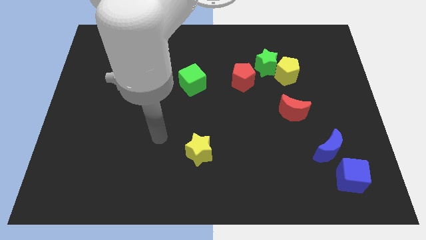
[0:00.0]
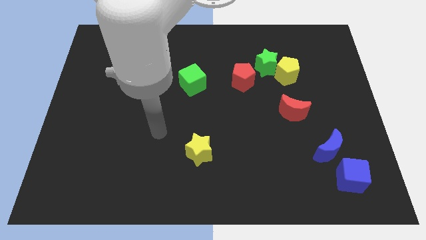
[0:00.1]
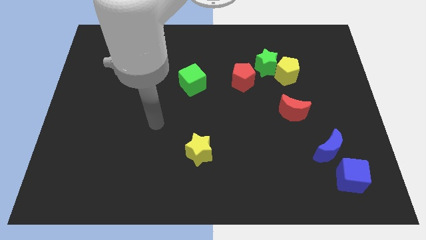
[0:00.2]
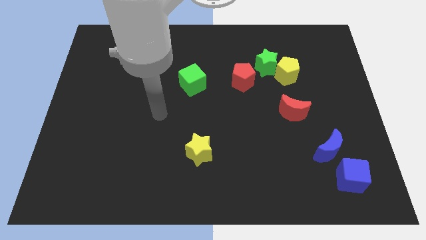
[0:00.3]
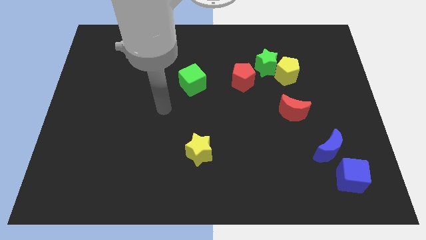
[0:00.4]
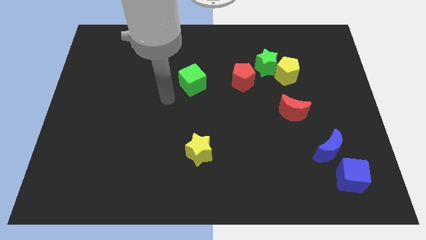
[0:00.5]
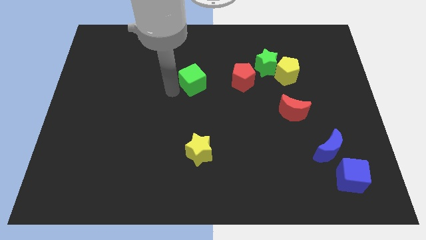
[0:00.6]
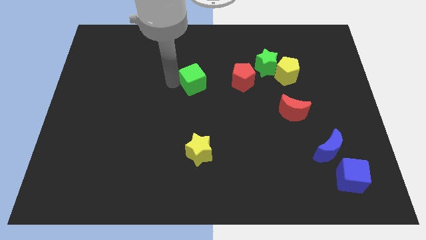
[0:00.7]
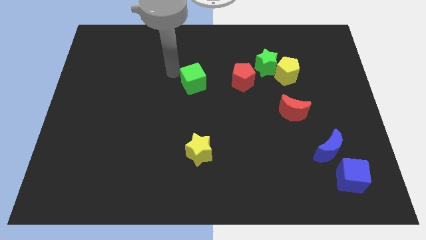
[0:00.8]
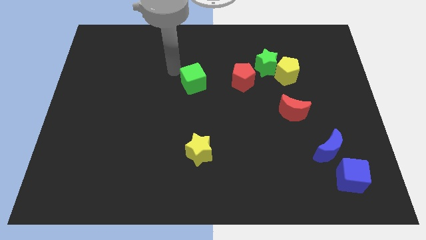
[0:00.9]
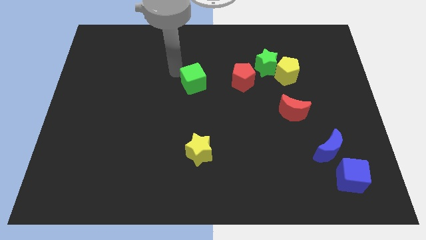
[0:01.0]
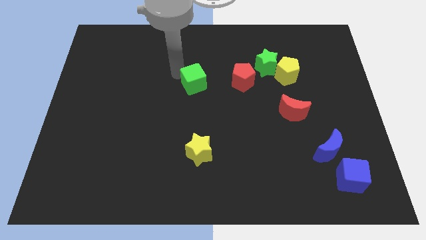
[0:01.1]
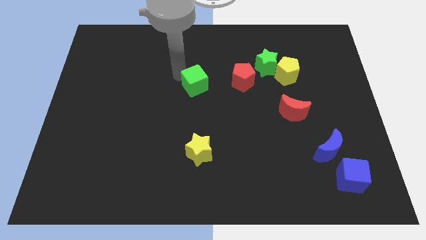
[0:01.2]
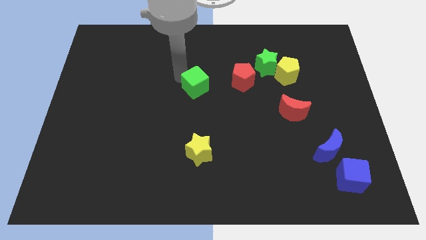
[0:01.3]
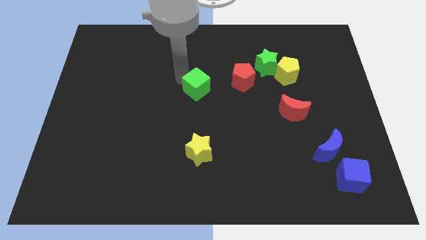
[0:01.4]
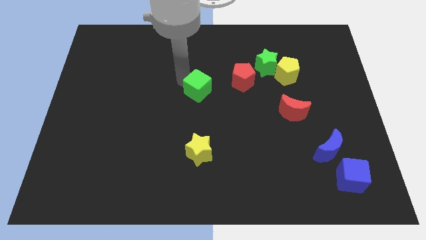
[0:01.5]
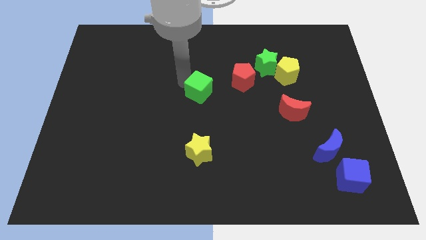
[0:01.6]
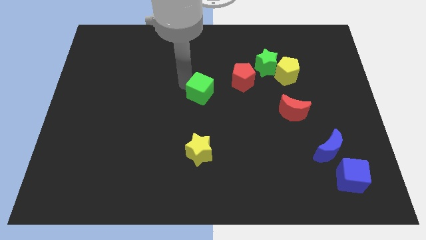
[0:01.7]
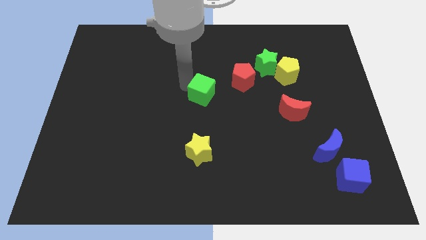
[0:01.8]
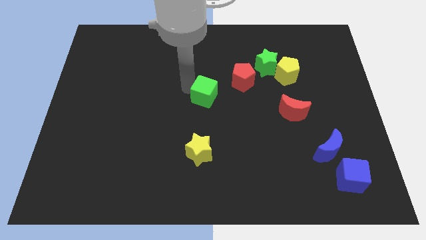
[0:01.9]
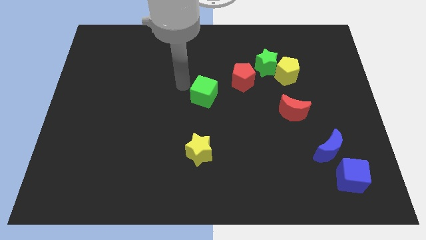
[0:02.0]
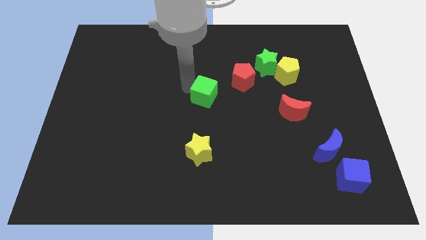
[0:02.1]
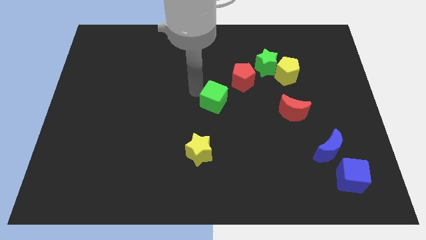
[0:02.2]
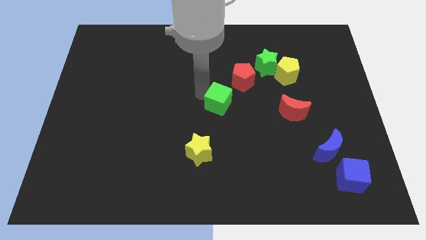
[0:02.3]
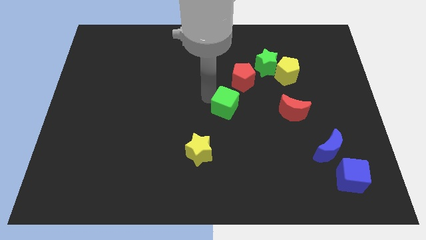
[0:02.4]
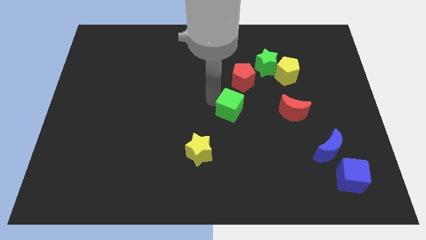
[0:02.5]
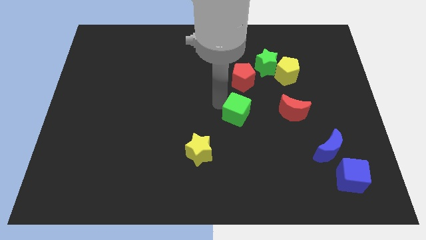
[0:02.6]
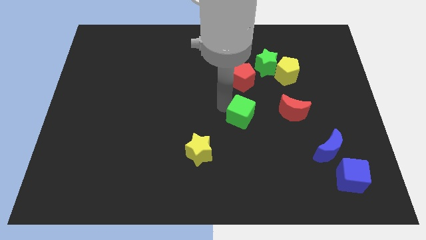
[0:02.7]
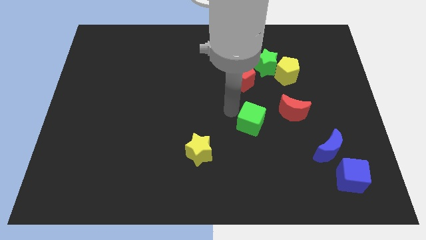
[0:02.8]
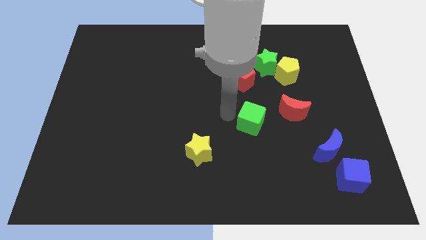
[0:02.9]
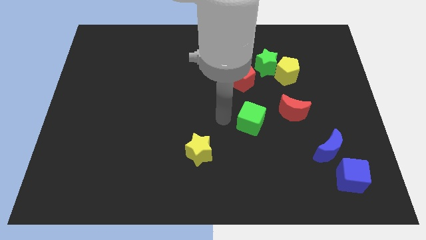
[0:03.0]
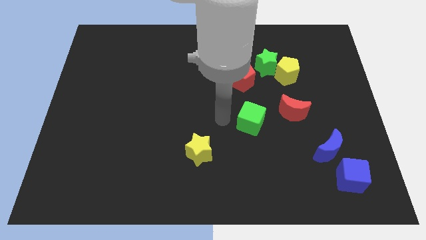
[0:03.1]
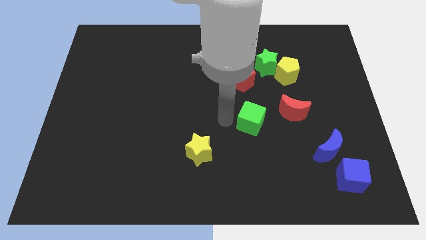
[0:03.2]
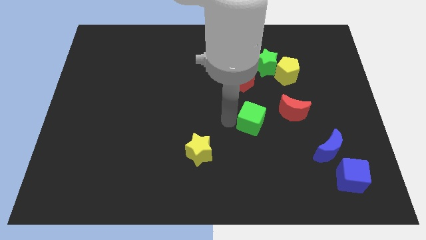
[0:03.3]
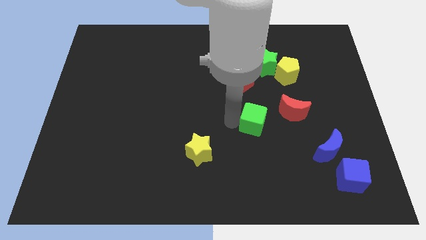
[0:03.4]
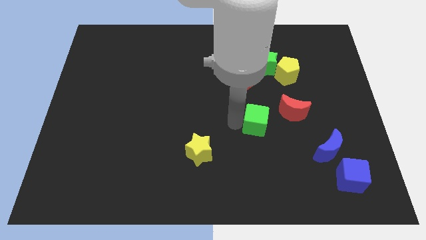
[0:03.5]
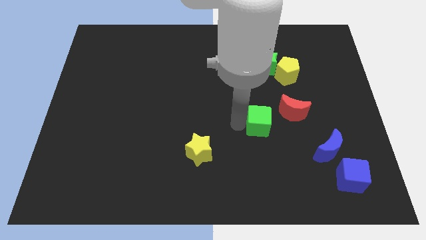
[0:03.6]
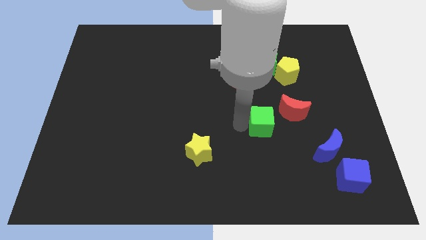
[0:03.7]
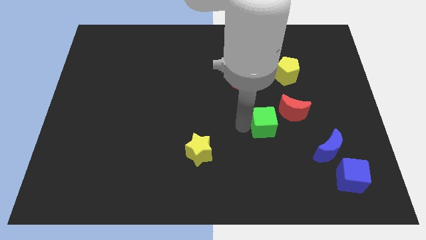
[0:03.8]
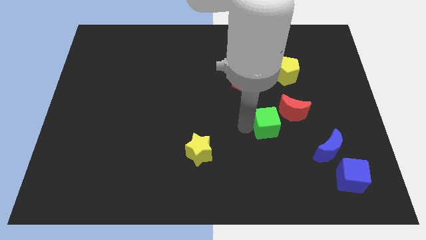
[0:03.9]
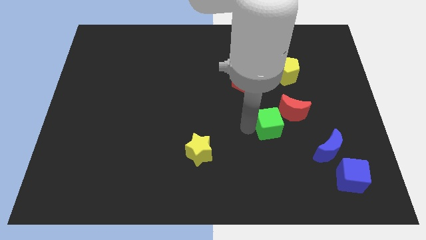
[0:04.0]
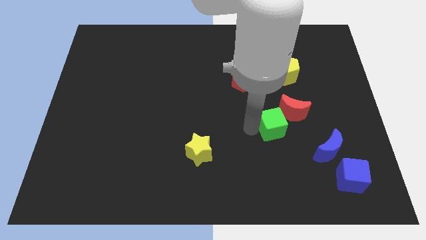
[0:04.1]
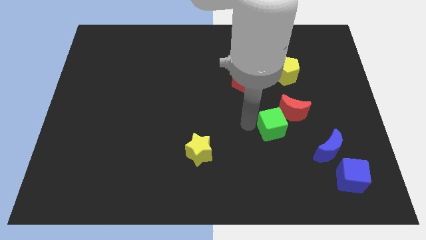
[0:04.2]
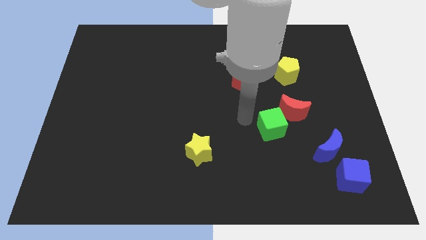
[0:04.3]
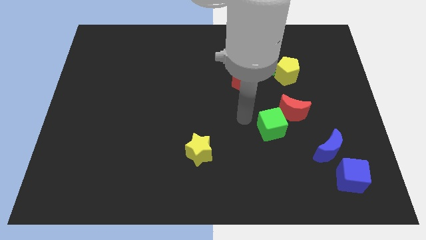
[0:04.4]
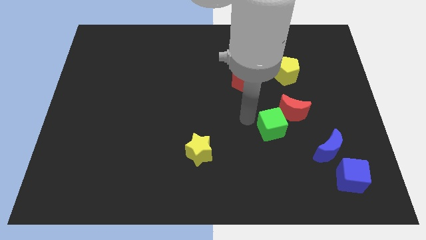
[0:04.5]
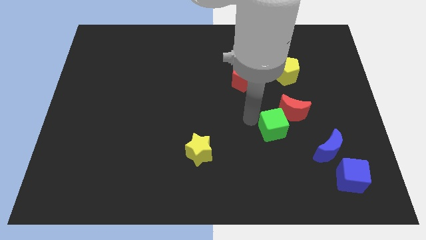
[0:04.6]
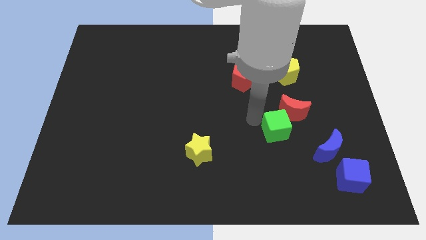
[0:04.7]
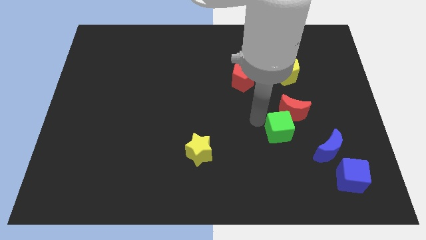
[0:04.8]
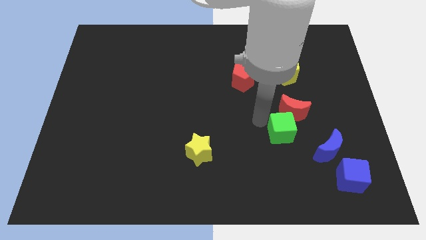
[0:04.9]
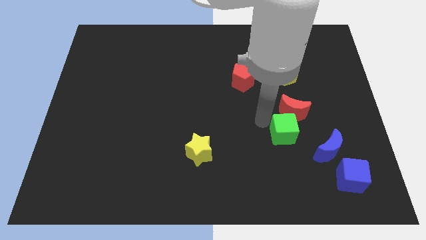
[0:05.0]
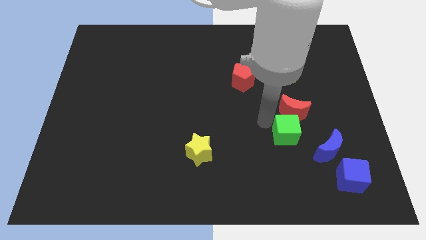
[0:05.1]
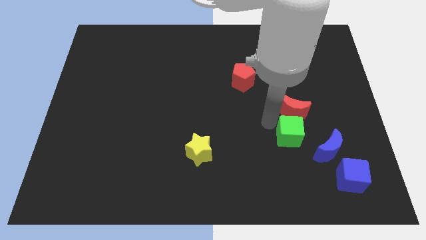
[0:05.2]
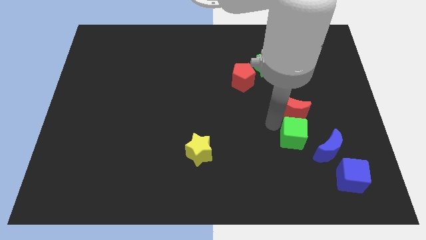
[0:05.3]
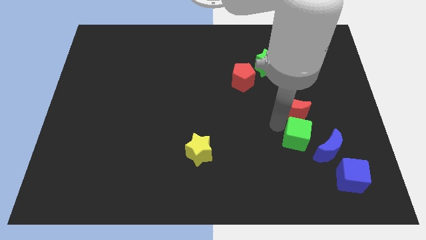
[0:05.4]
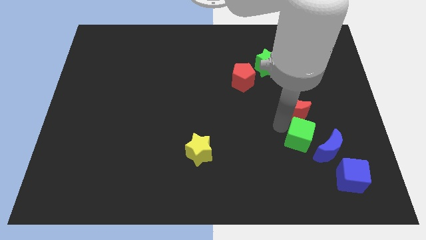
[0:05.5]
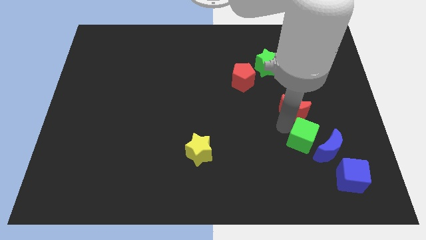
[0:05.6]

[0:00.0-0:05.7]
put the green cube next to the blue moon

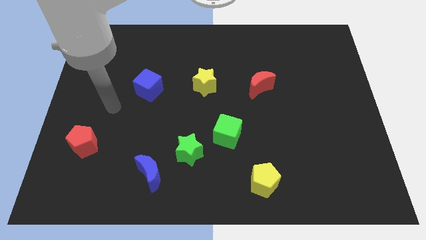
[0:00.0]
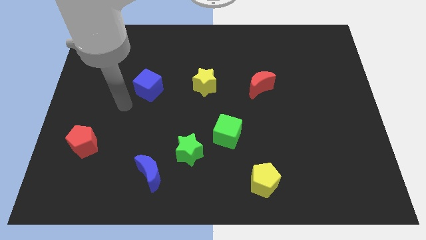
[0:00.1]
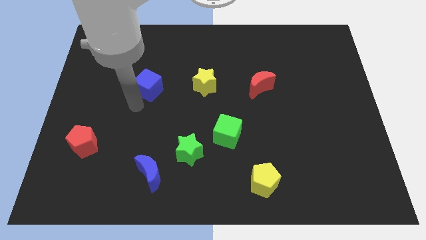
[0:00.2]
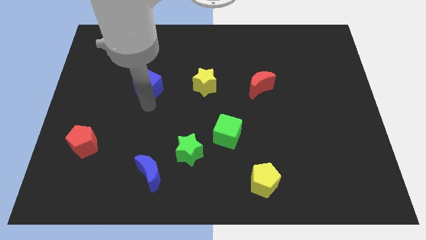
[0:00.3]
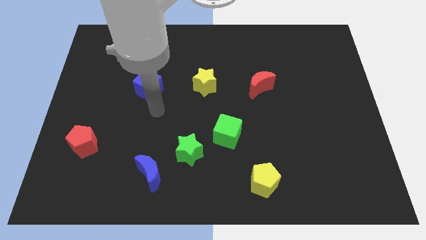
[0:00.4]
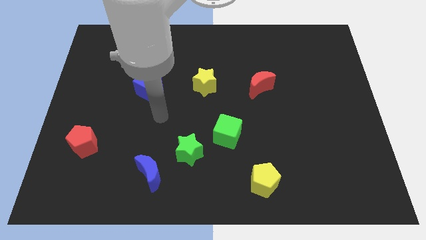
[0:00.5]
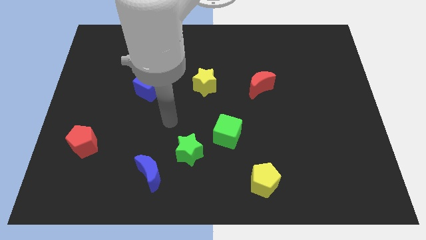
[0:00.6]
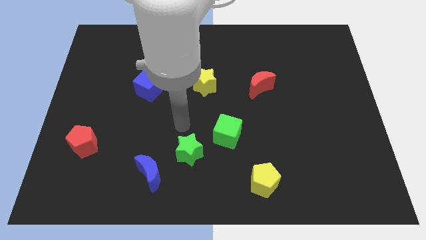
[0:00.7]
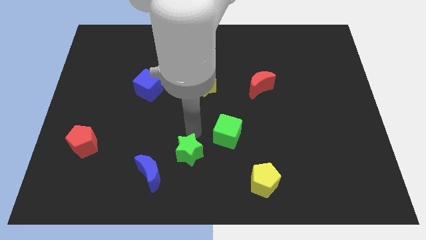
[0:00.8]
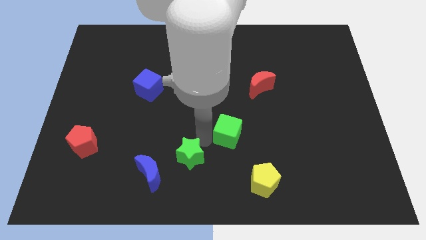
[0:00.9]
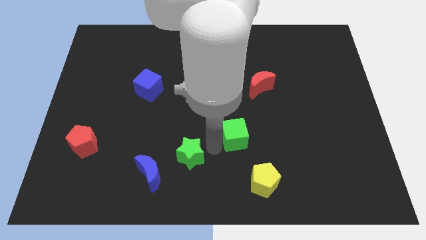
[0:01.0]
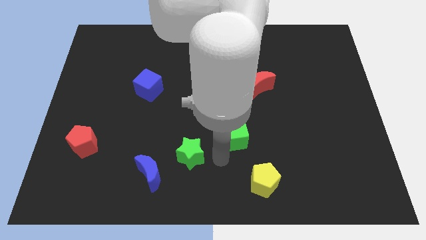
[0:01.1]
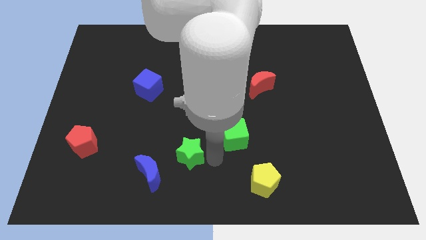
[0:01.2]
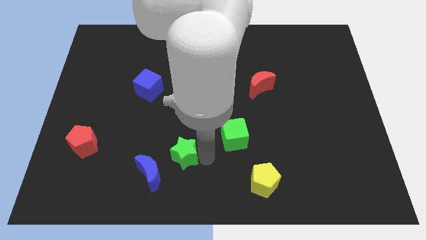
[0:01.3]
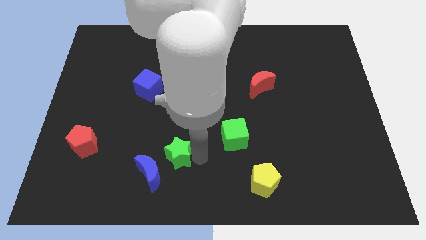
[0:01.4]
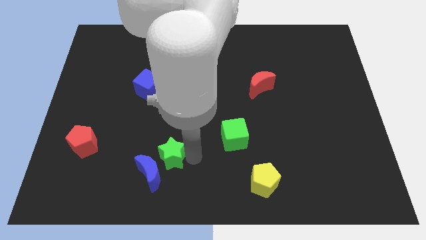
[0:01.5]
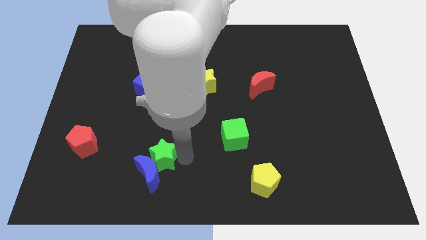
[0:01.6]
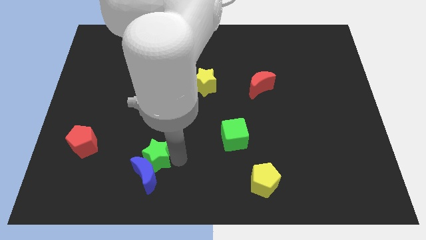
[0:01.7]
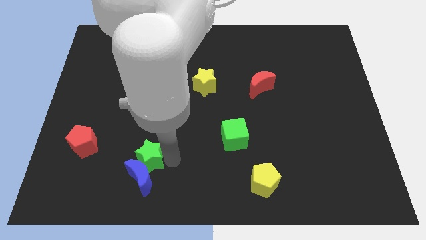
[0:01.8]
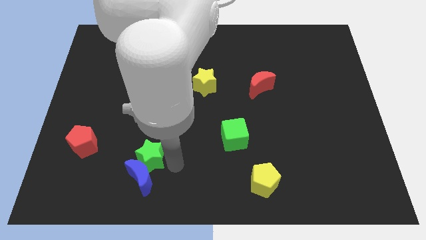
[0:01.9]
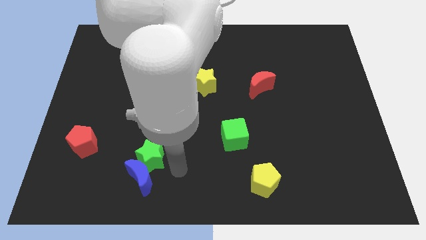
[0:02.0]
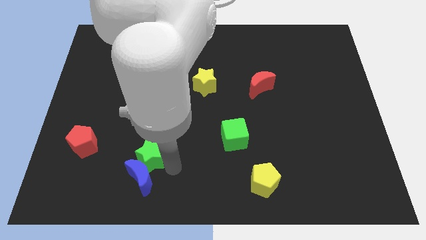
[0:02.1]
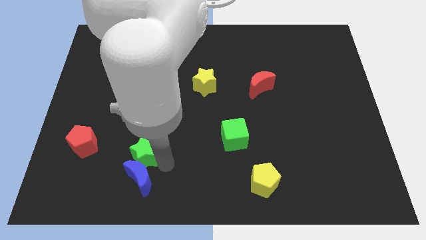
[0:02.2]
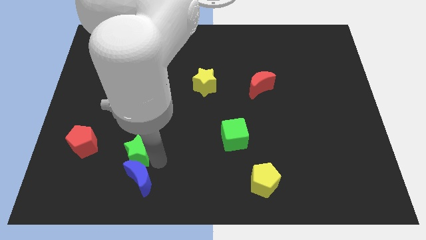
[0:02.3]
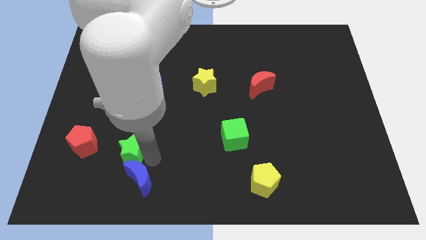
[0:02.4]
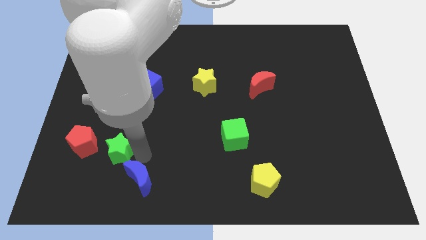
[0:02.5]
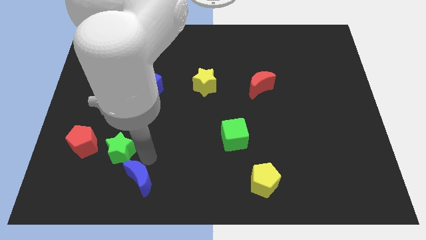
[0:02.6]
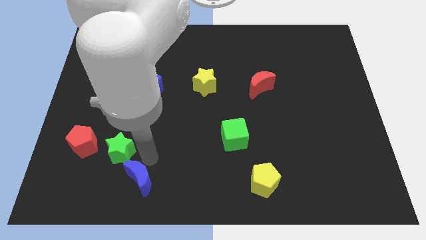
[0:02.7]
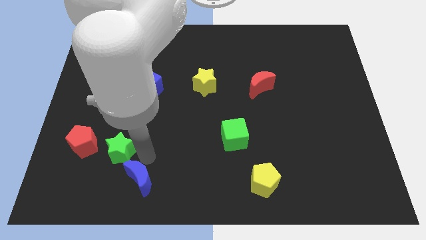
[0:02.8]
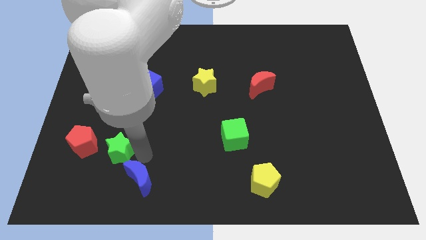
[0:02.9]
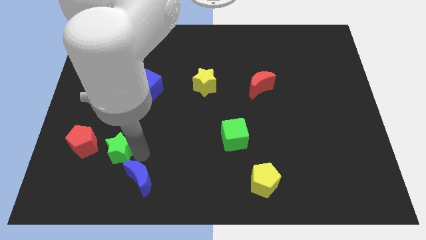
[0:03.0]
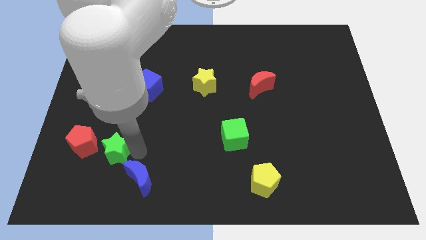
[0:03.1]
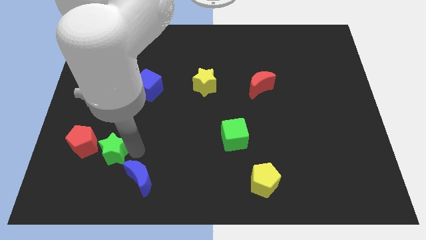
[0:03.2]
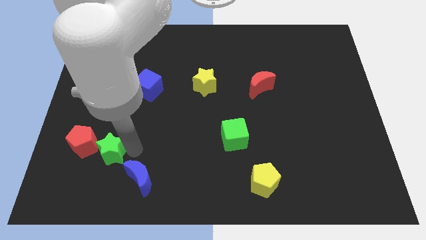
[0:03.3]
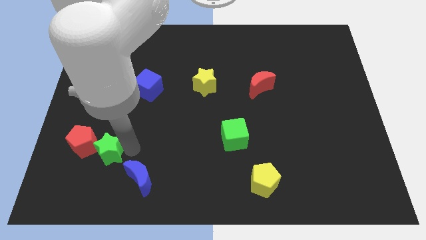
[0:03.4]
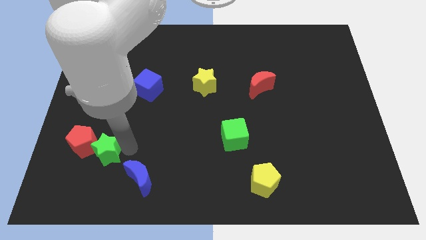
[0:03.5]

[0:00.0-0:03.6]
put the green star towards the red pentagon
